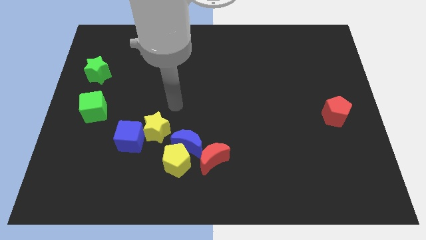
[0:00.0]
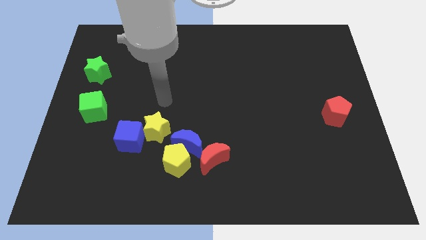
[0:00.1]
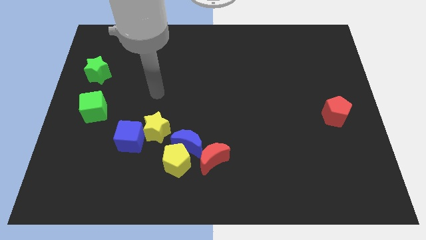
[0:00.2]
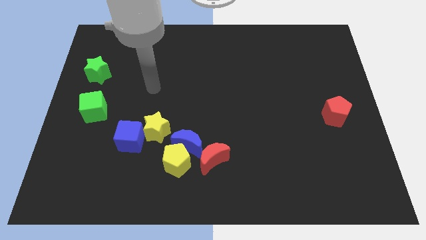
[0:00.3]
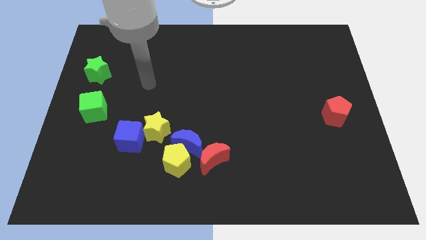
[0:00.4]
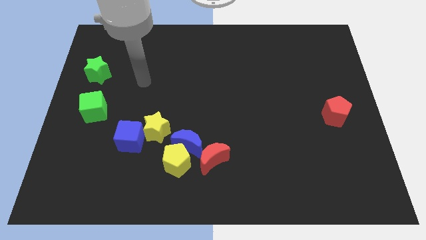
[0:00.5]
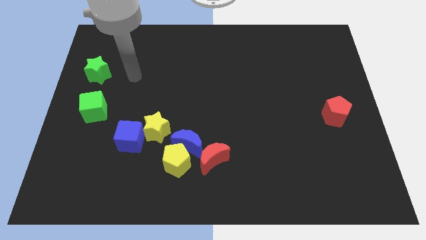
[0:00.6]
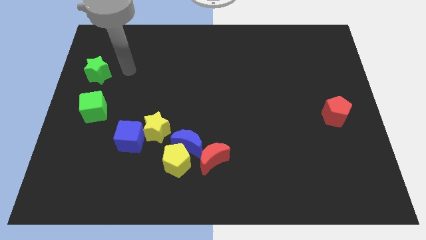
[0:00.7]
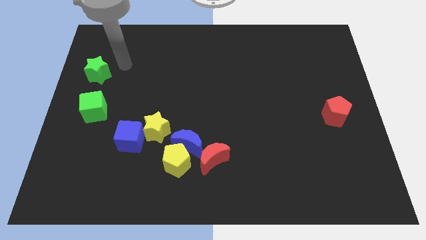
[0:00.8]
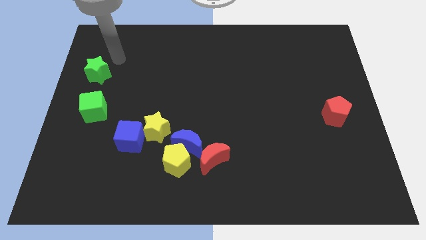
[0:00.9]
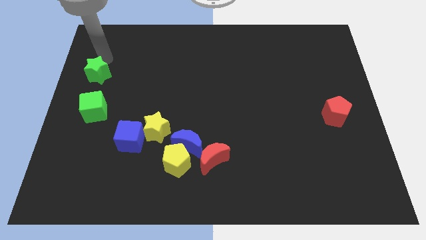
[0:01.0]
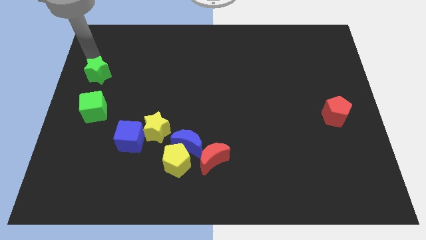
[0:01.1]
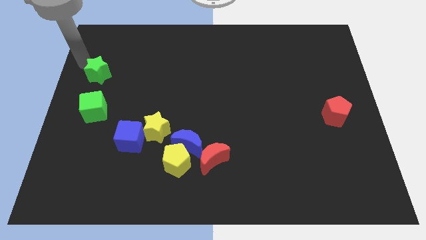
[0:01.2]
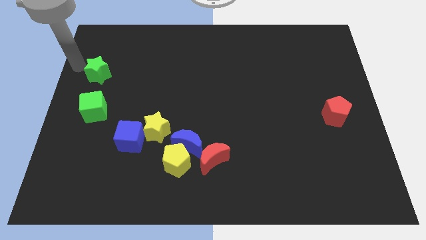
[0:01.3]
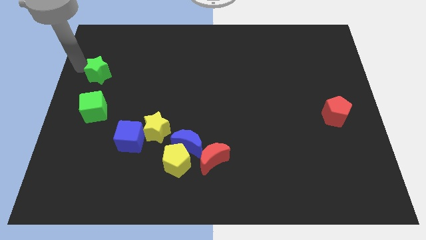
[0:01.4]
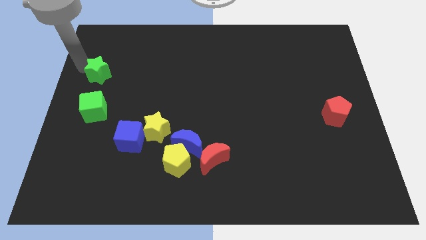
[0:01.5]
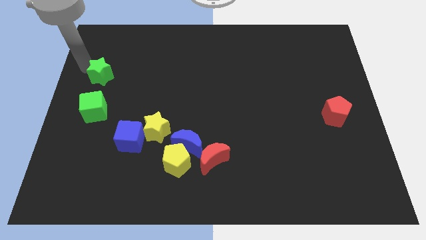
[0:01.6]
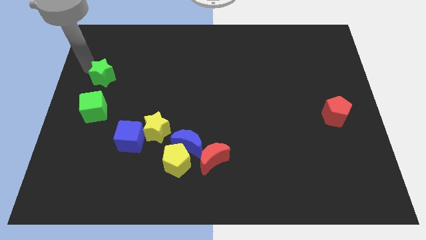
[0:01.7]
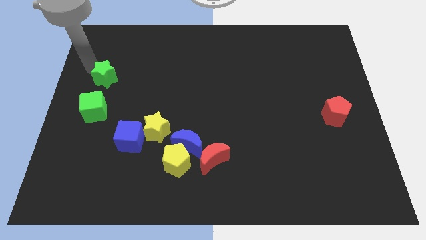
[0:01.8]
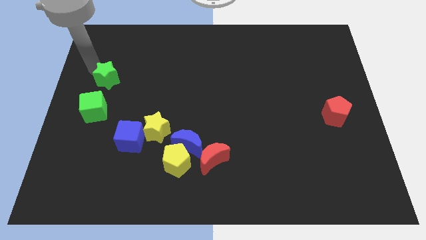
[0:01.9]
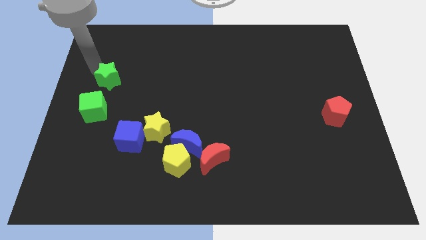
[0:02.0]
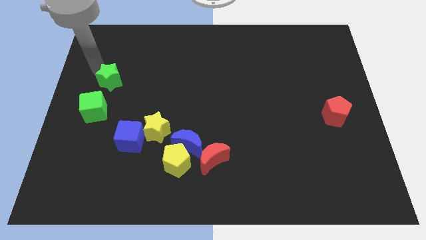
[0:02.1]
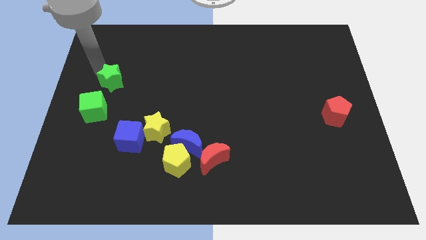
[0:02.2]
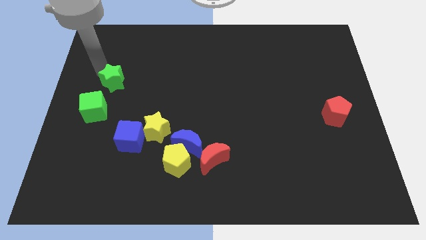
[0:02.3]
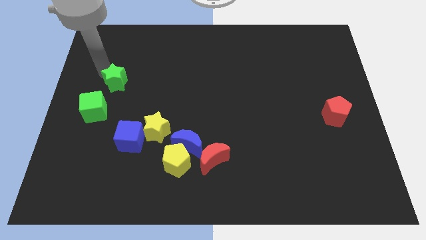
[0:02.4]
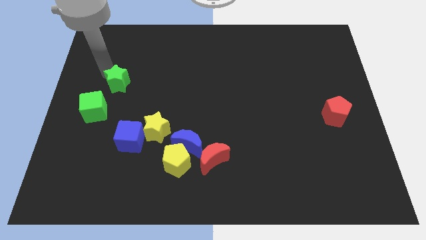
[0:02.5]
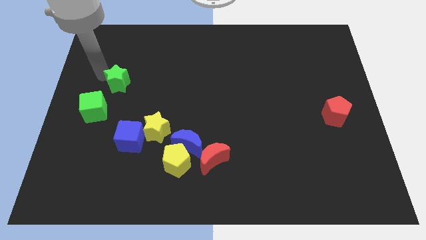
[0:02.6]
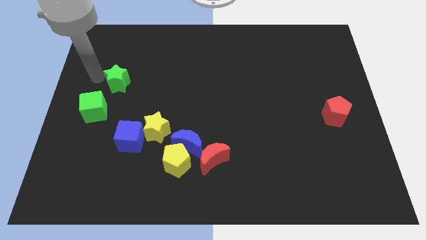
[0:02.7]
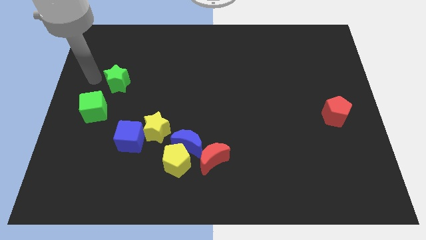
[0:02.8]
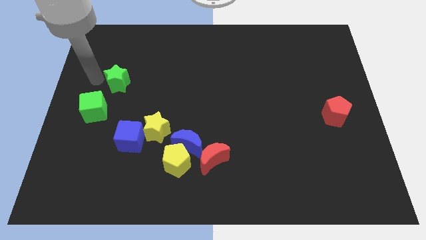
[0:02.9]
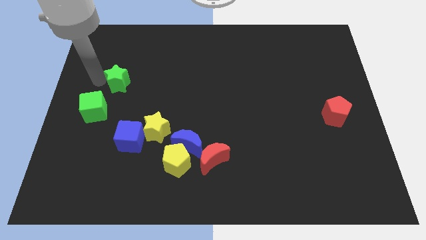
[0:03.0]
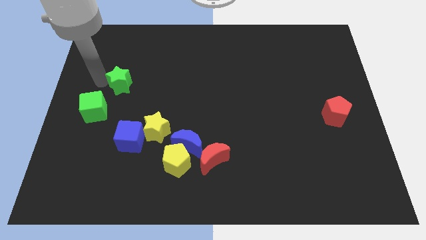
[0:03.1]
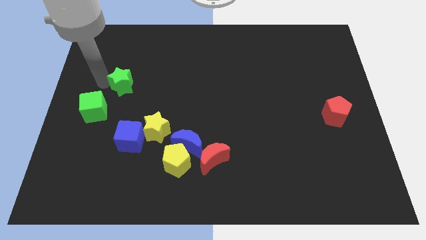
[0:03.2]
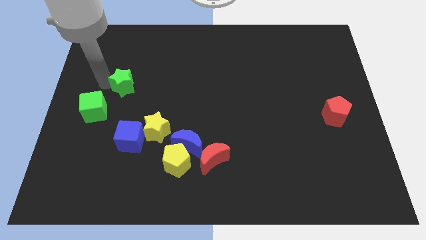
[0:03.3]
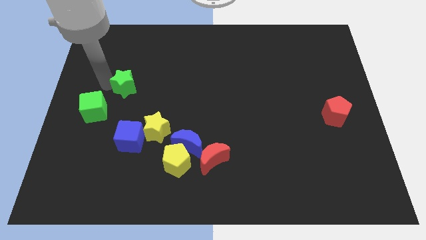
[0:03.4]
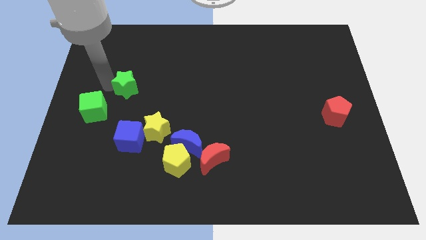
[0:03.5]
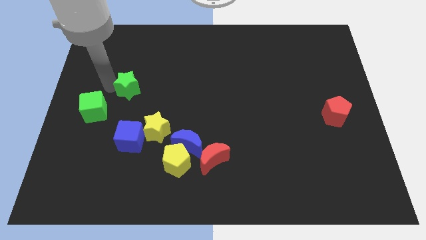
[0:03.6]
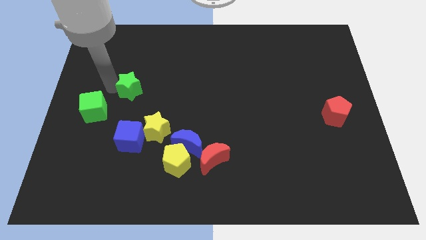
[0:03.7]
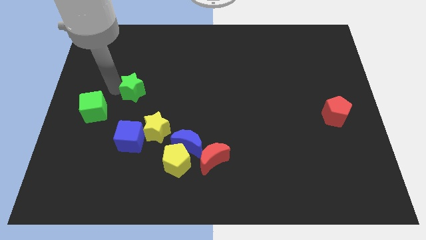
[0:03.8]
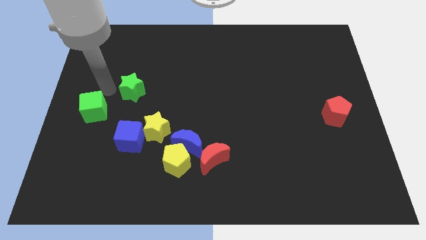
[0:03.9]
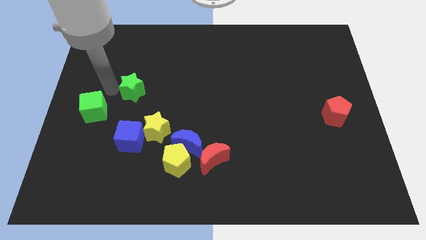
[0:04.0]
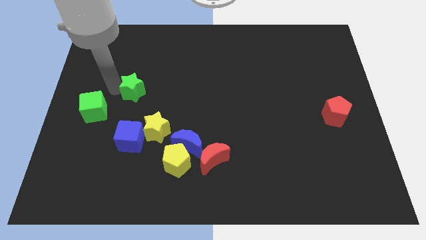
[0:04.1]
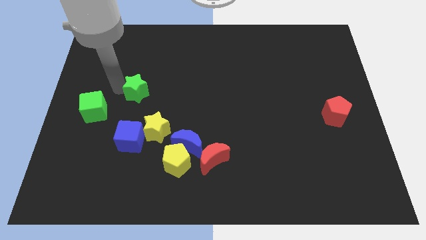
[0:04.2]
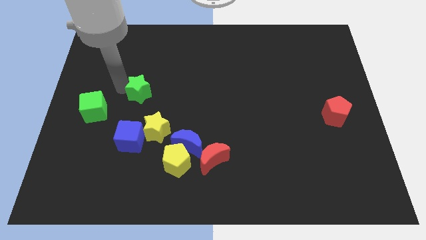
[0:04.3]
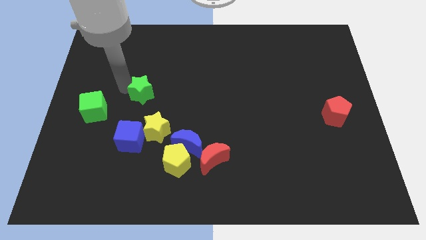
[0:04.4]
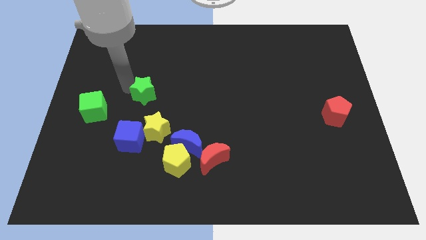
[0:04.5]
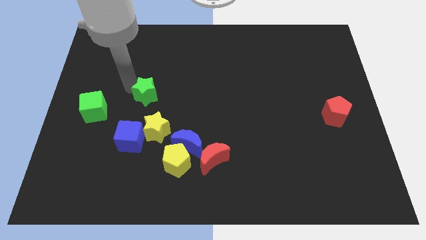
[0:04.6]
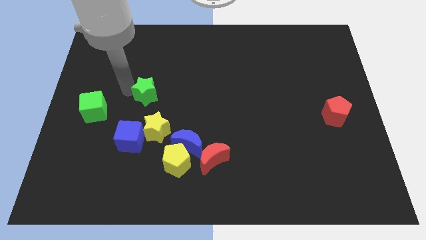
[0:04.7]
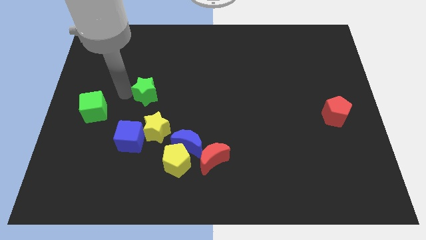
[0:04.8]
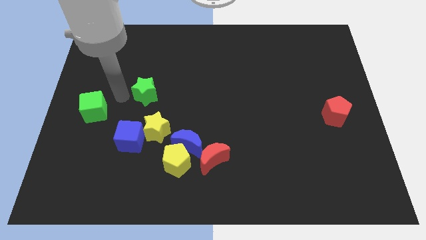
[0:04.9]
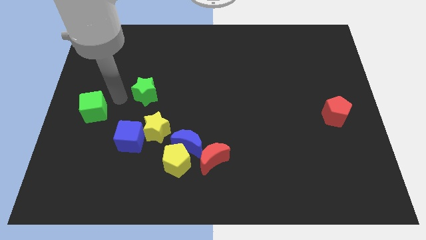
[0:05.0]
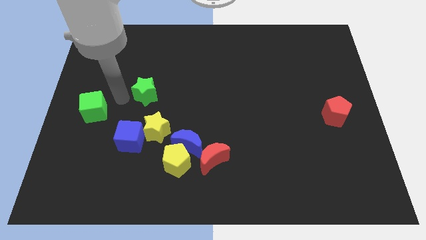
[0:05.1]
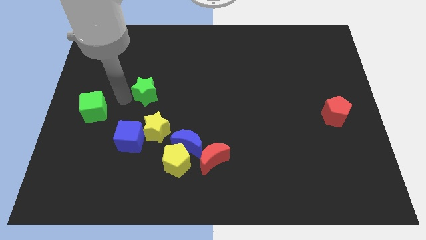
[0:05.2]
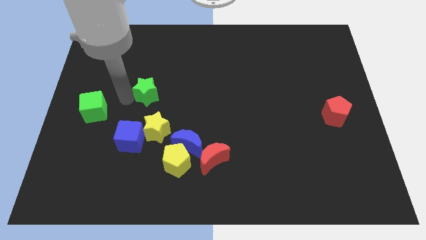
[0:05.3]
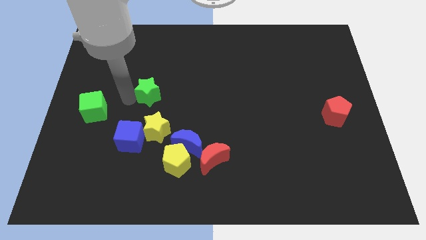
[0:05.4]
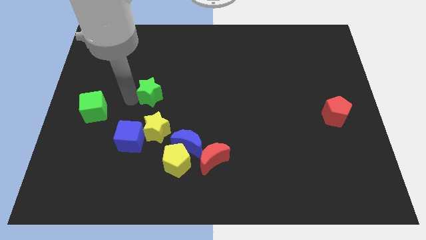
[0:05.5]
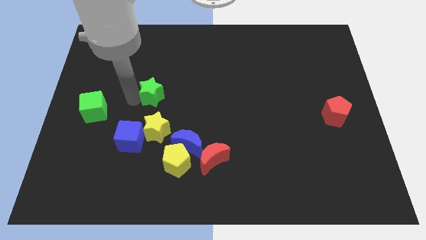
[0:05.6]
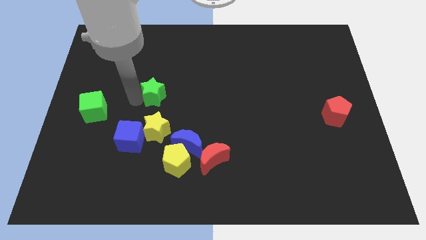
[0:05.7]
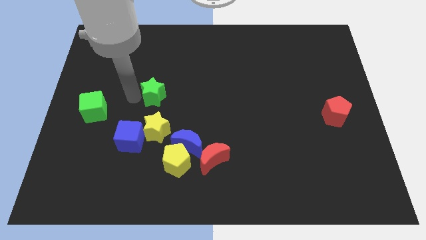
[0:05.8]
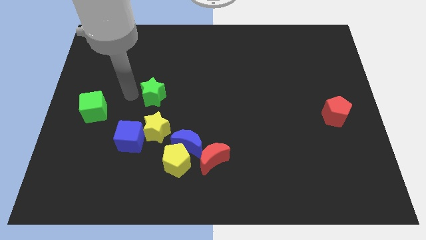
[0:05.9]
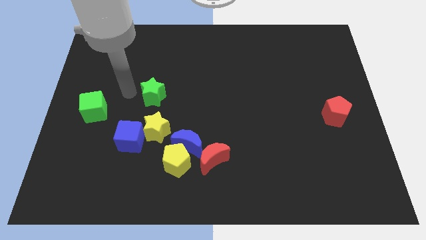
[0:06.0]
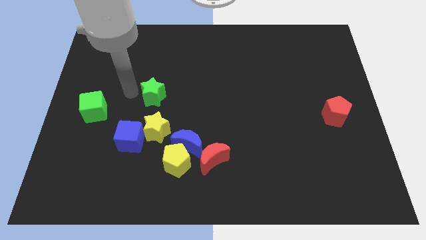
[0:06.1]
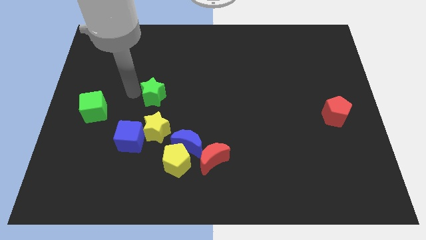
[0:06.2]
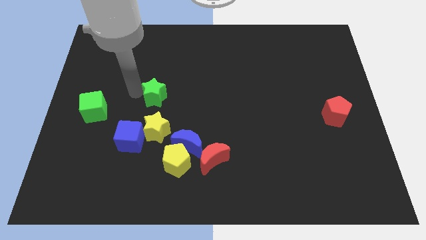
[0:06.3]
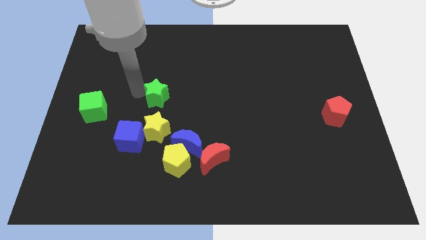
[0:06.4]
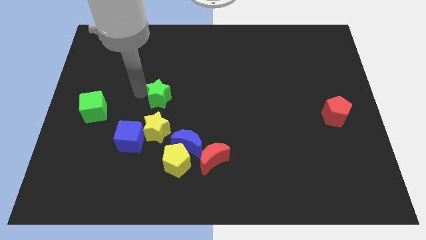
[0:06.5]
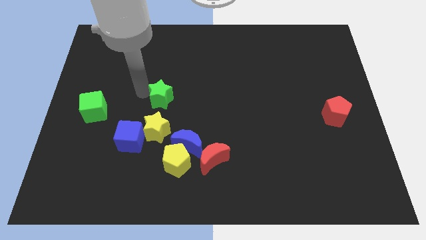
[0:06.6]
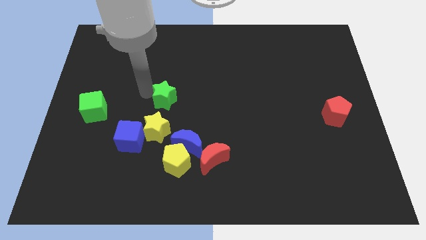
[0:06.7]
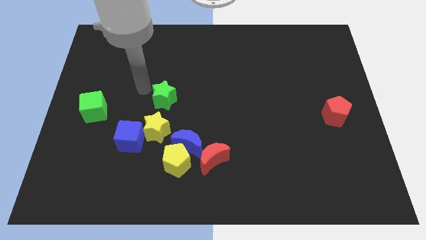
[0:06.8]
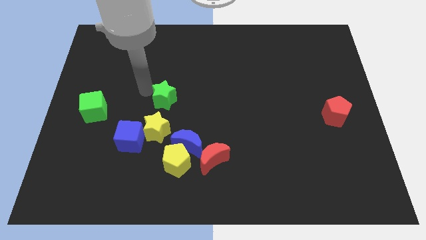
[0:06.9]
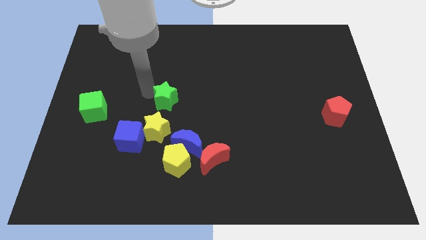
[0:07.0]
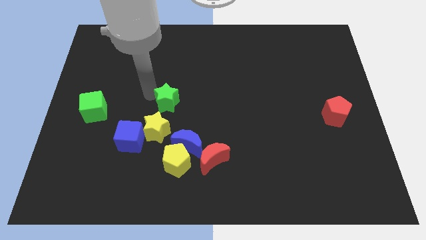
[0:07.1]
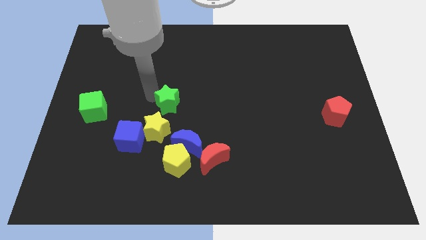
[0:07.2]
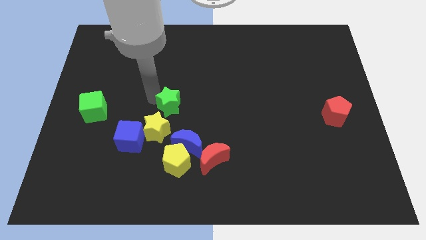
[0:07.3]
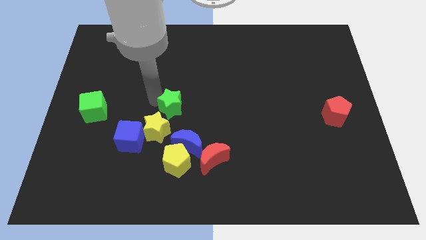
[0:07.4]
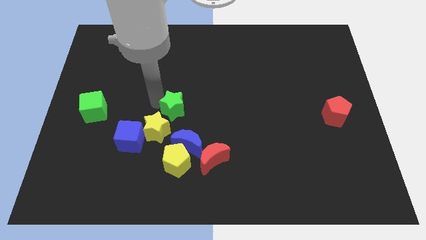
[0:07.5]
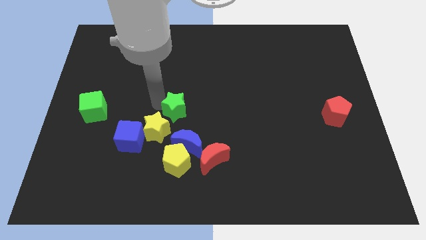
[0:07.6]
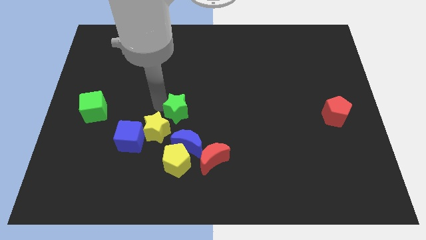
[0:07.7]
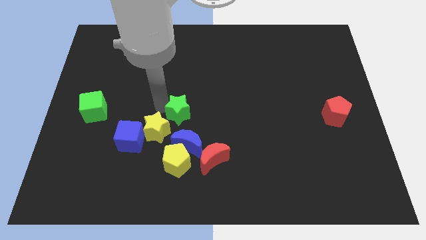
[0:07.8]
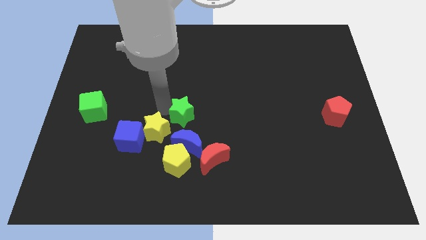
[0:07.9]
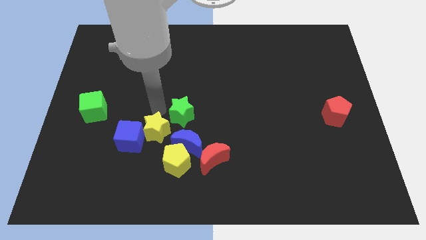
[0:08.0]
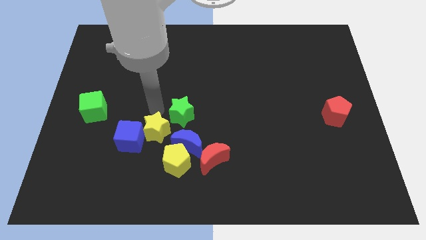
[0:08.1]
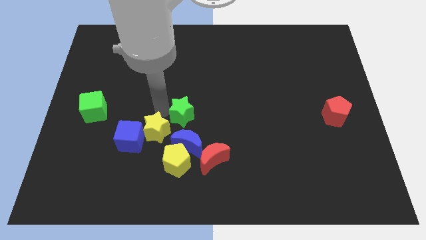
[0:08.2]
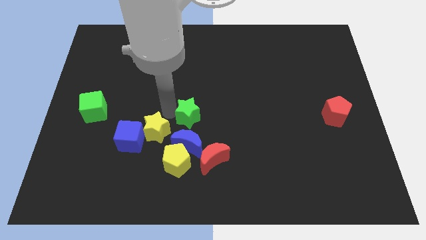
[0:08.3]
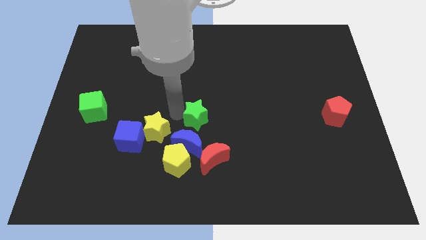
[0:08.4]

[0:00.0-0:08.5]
put the green star above the red moon
